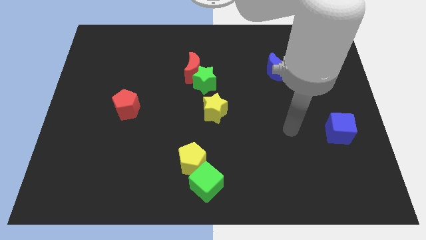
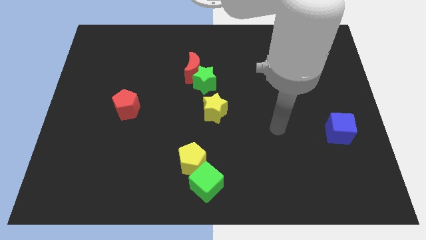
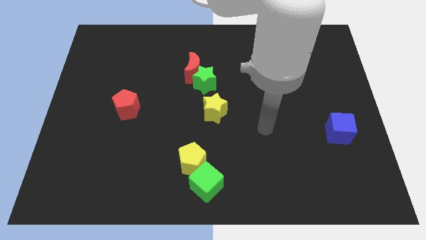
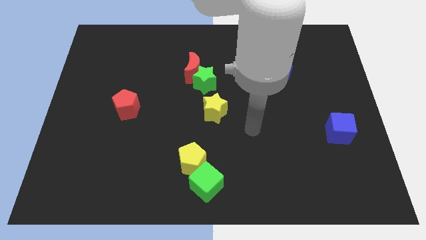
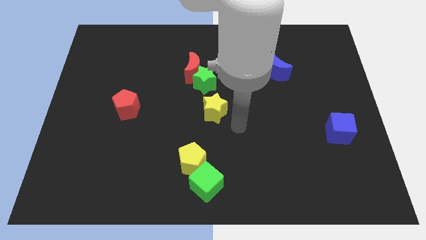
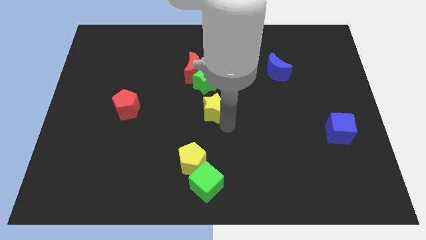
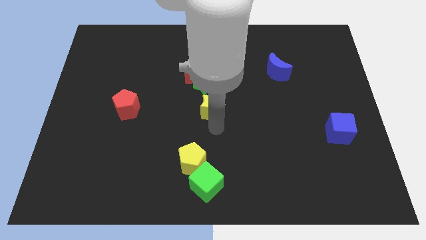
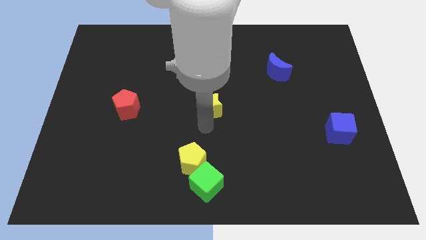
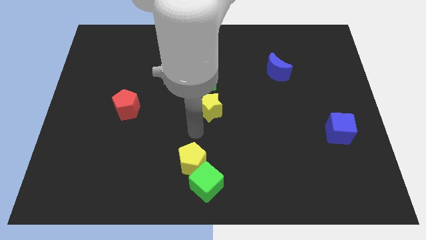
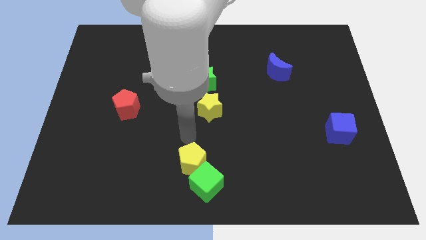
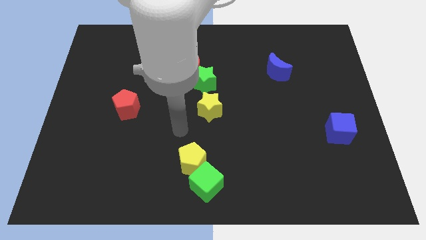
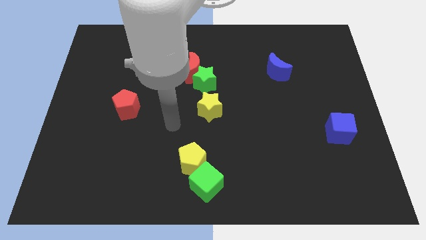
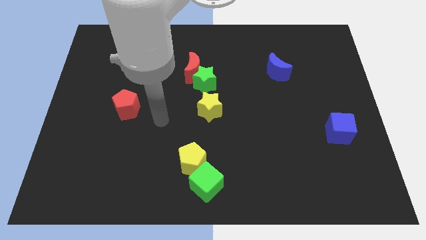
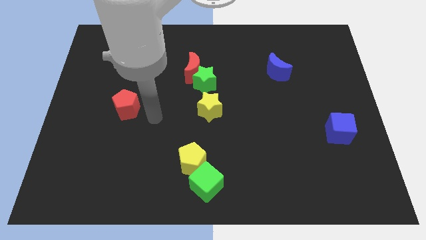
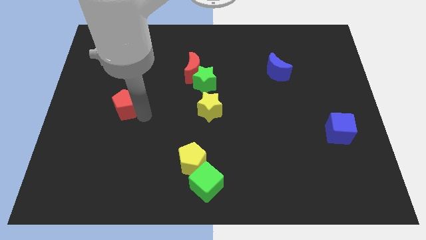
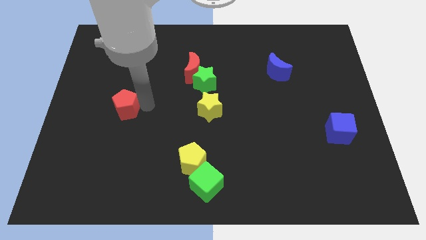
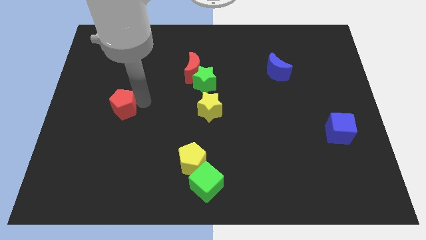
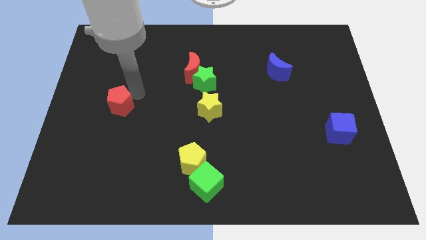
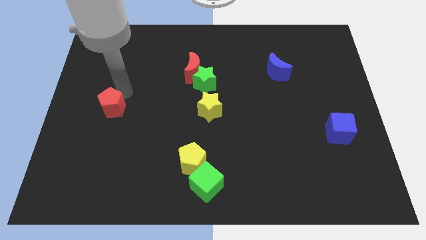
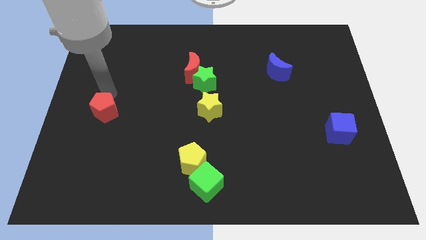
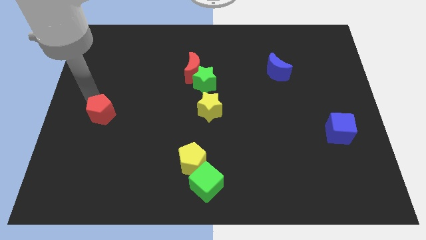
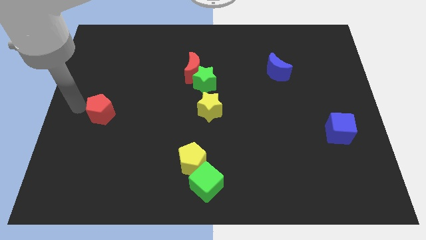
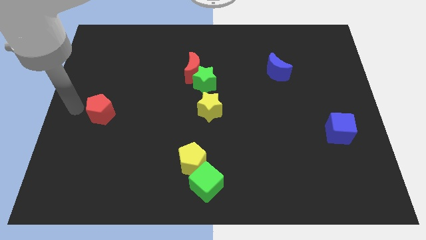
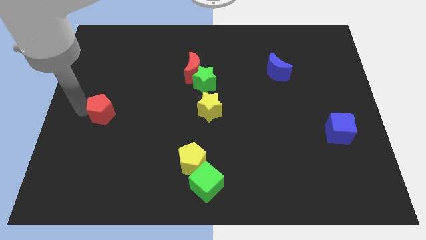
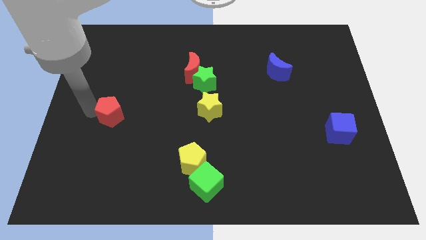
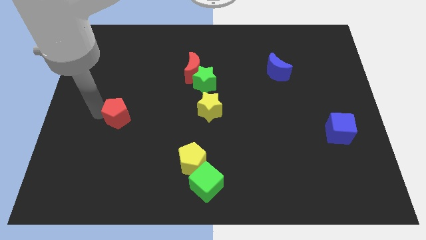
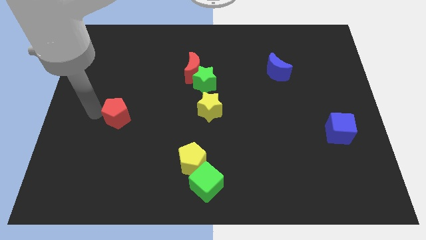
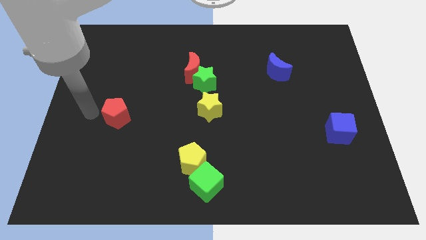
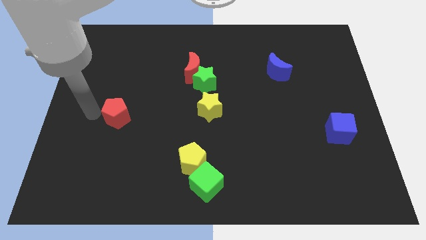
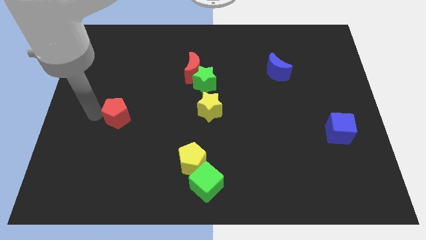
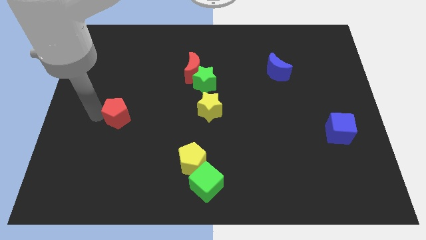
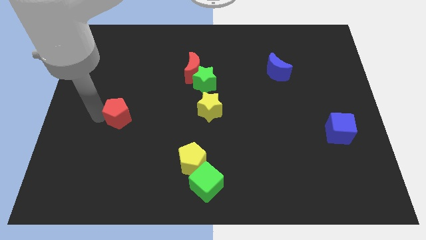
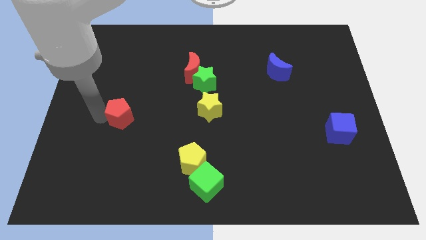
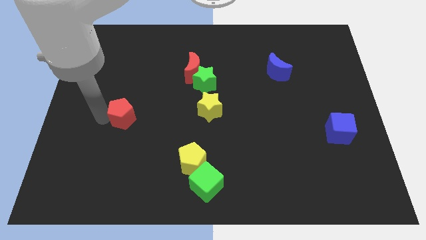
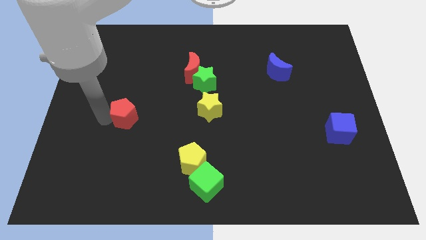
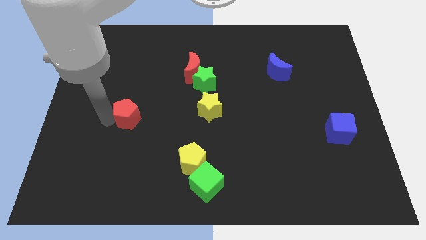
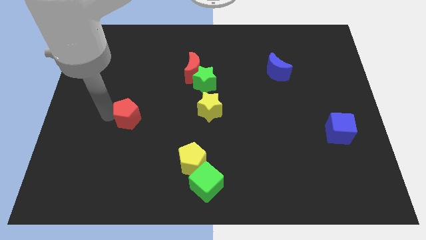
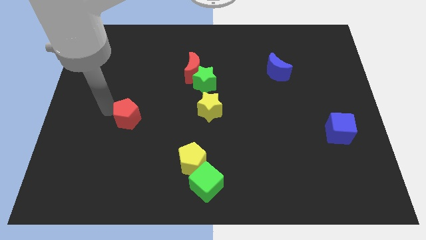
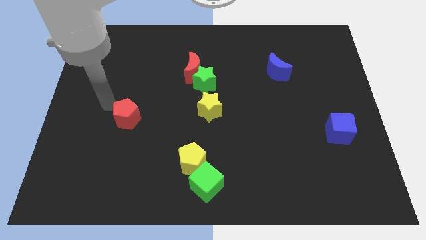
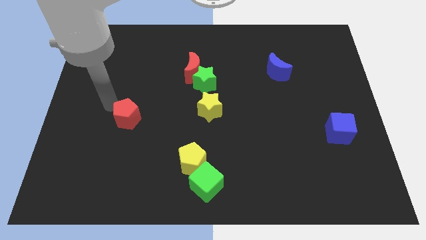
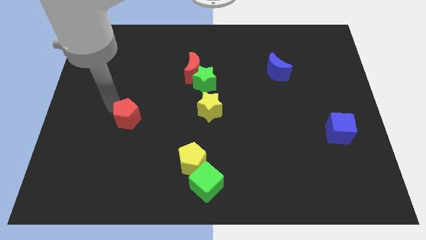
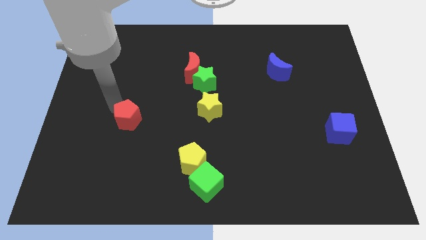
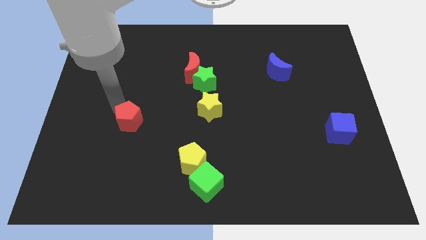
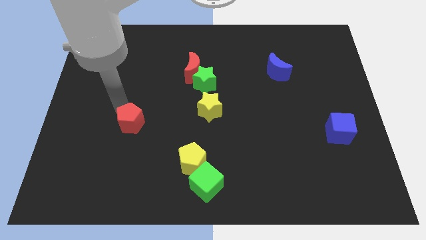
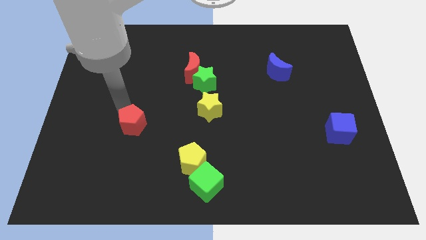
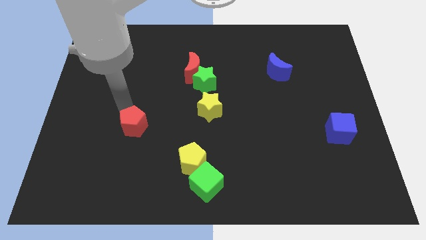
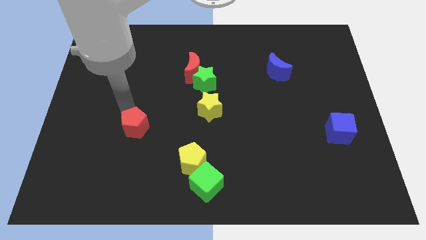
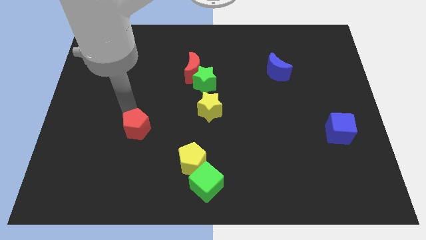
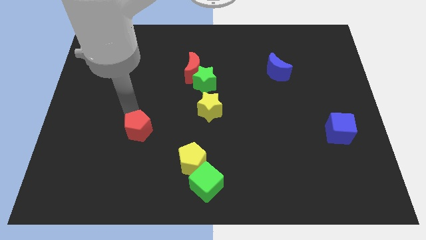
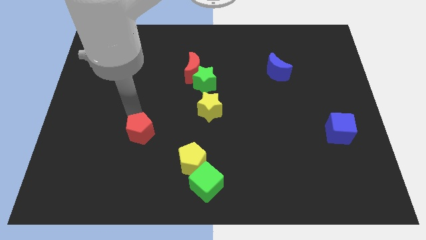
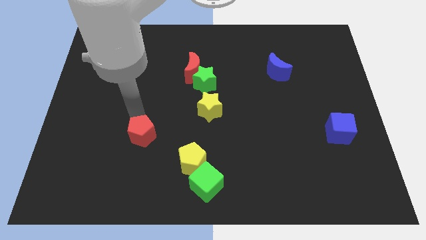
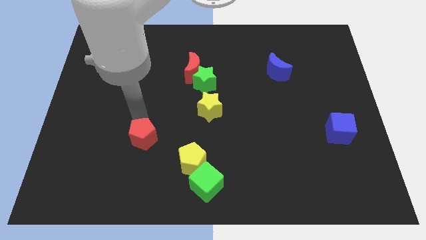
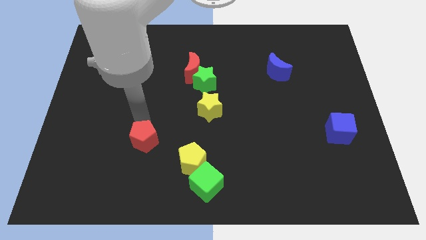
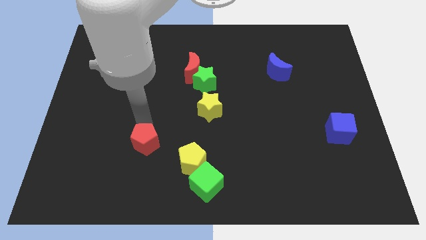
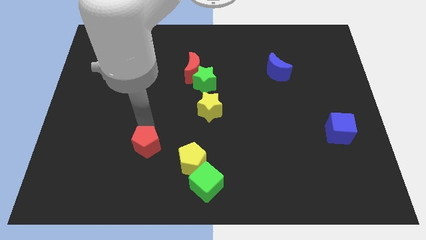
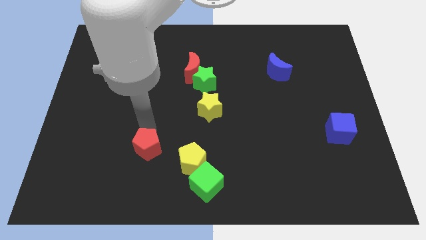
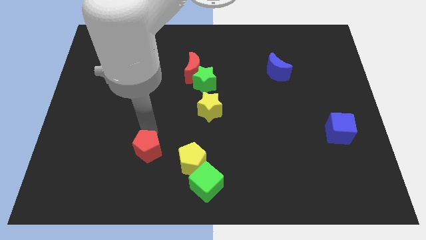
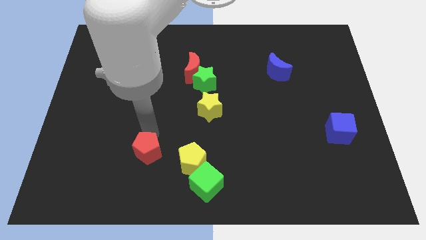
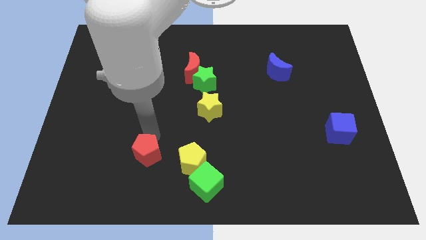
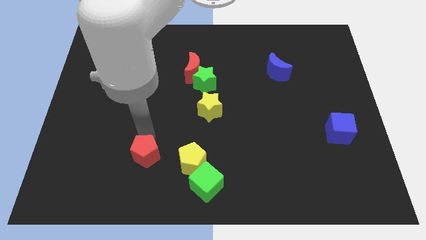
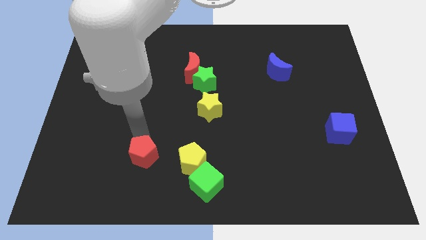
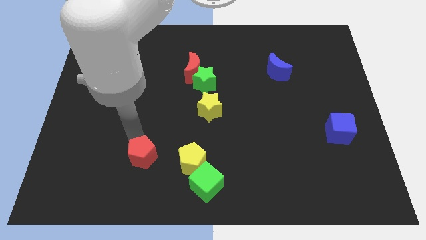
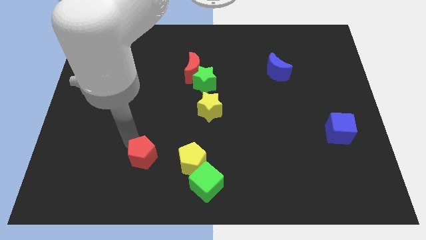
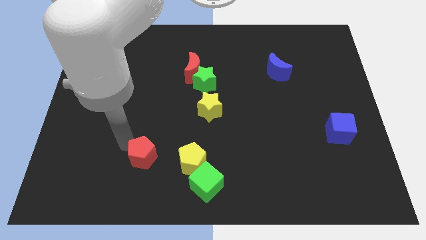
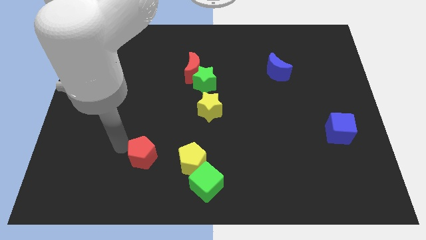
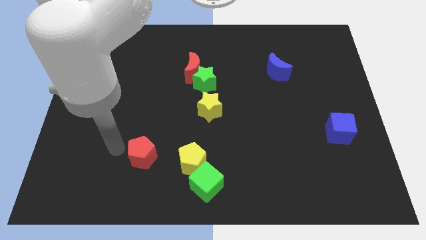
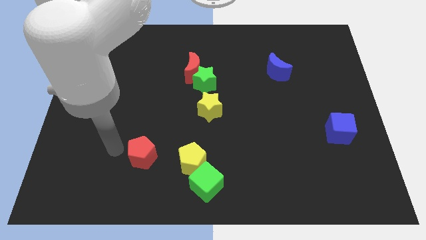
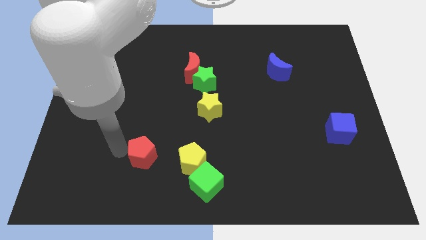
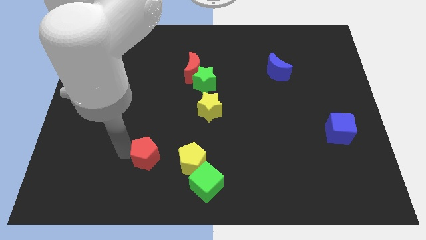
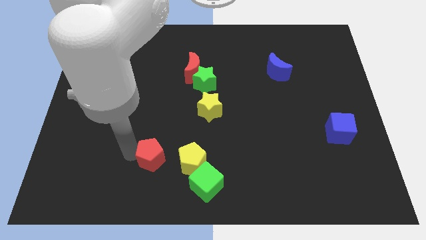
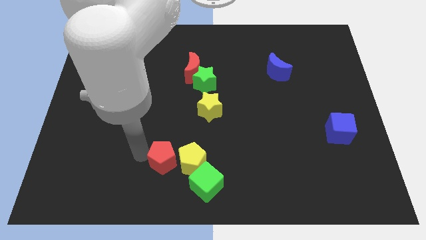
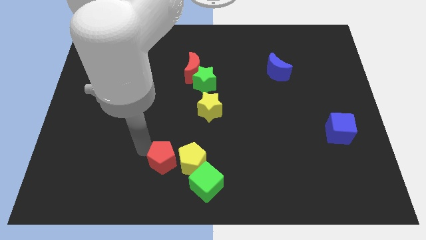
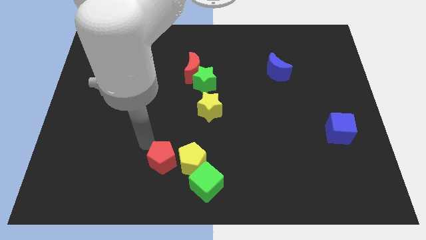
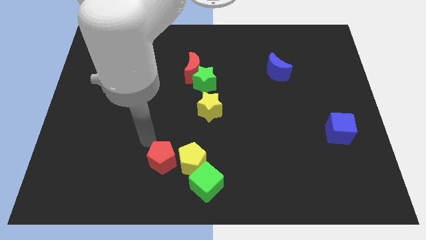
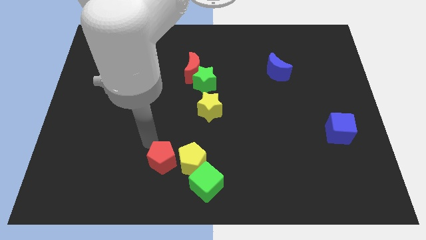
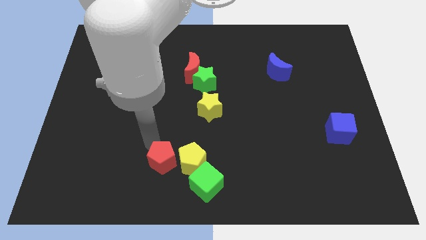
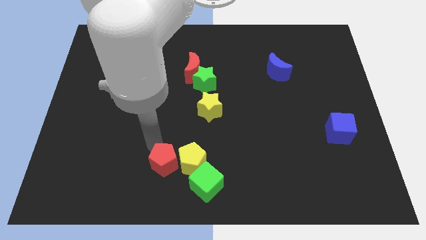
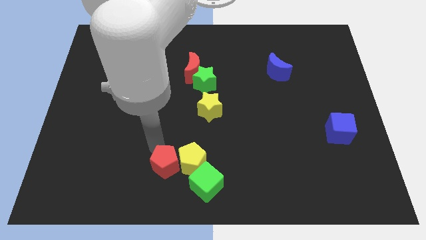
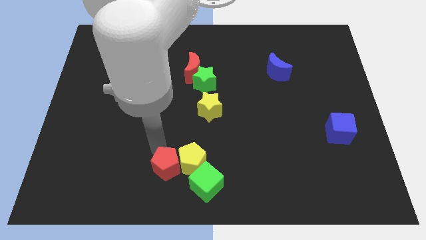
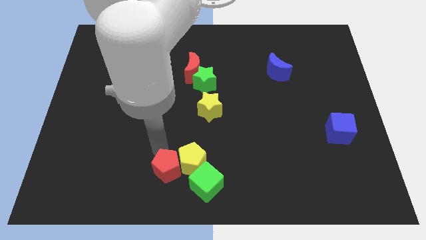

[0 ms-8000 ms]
put the red pentagon to the bottom side

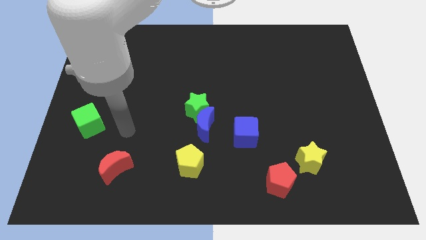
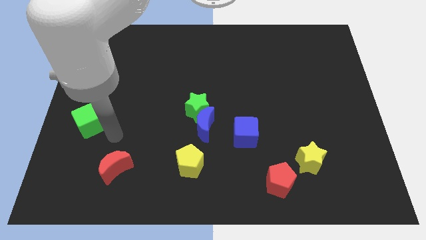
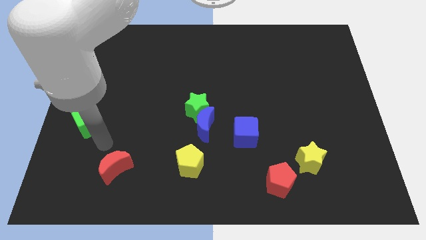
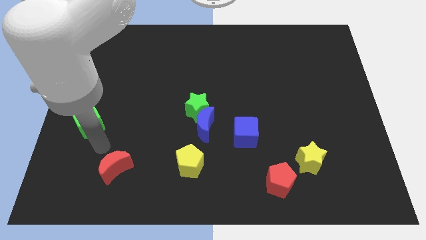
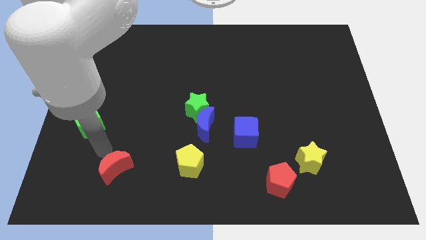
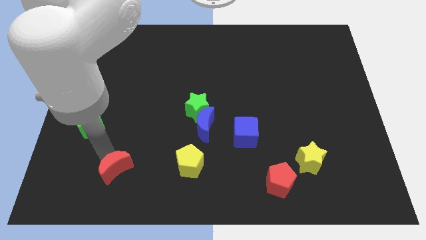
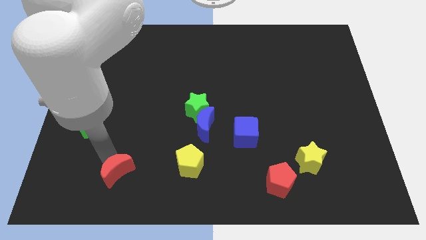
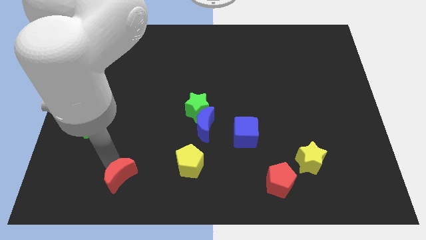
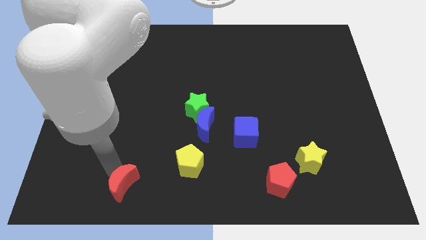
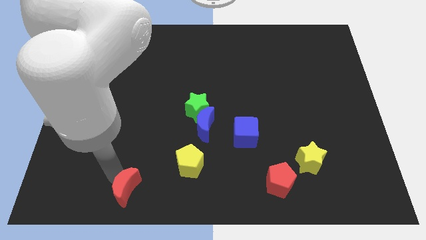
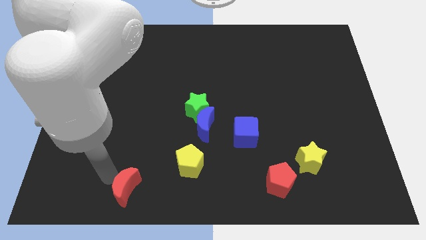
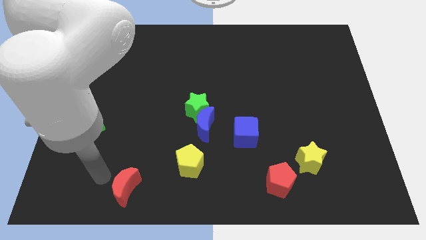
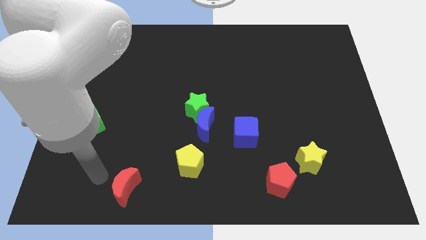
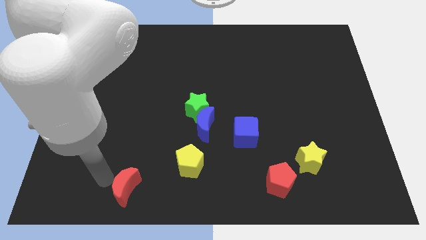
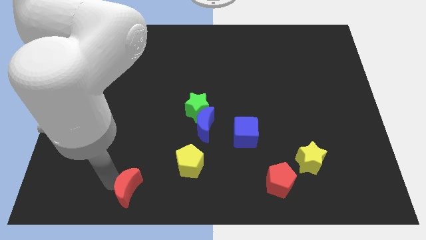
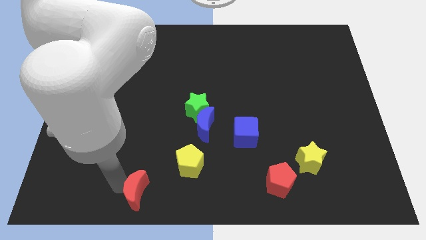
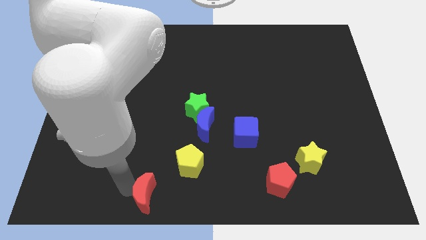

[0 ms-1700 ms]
push the red moon to the bottom side
